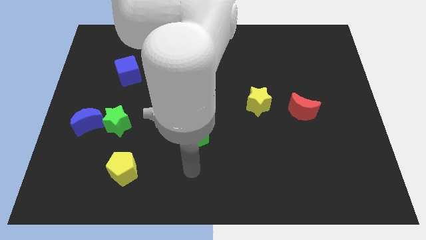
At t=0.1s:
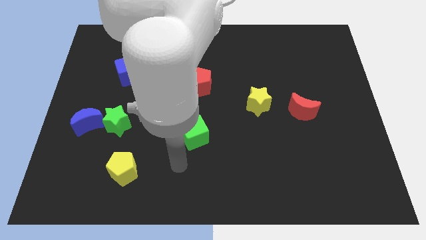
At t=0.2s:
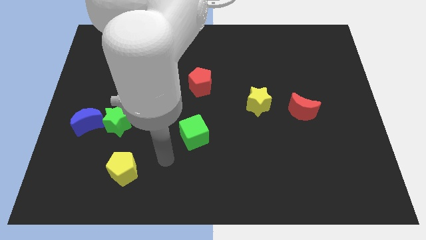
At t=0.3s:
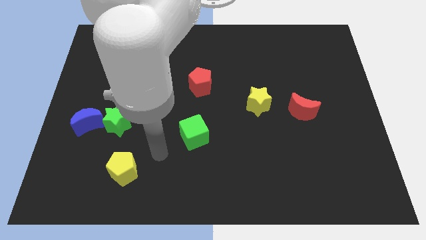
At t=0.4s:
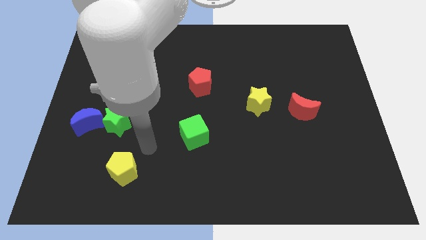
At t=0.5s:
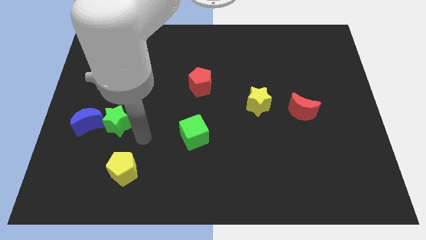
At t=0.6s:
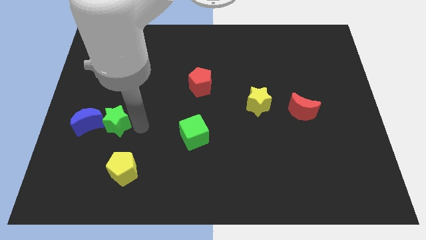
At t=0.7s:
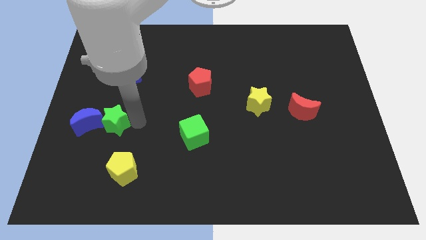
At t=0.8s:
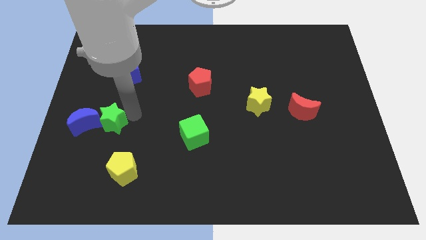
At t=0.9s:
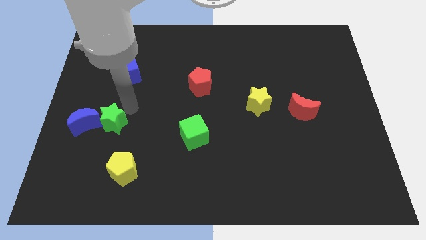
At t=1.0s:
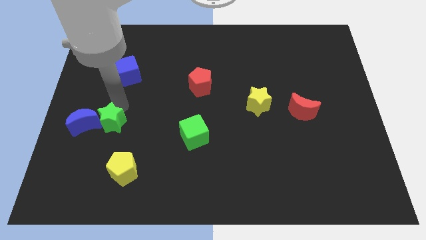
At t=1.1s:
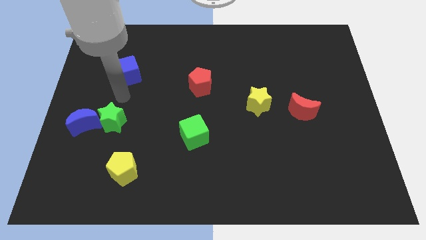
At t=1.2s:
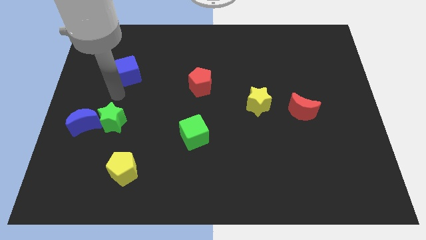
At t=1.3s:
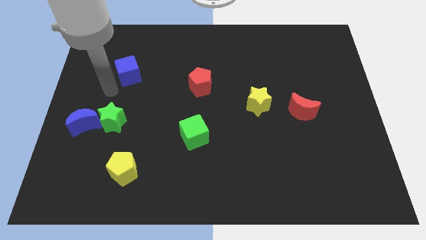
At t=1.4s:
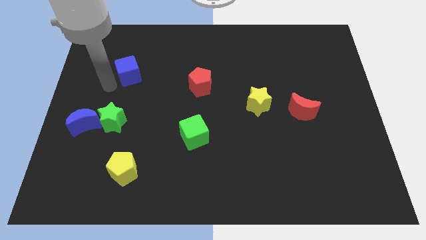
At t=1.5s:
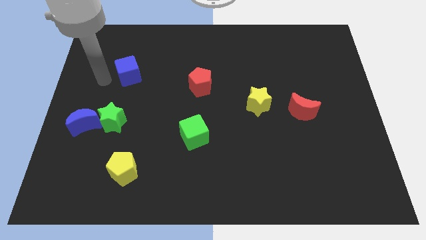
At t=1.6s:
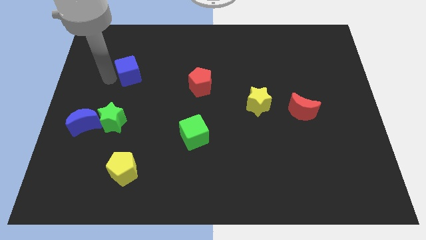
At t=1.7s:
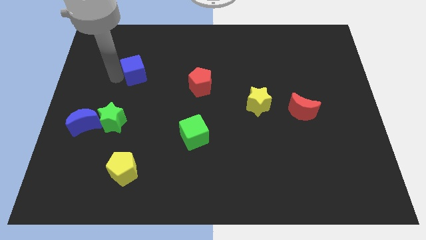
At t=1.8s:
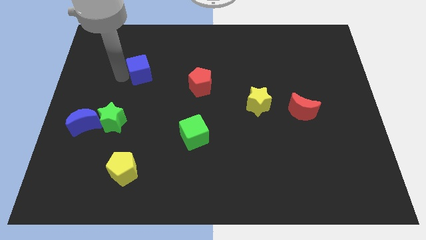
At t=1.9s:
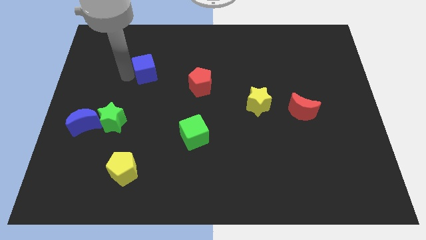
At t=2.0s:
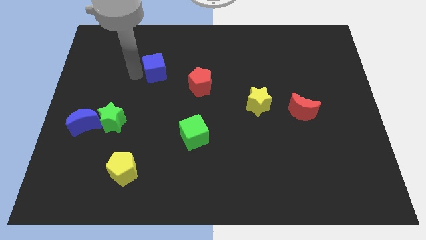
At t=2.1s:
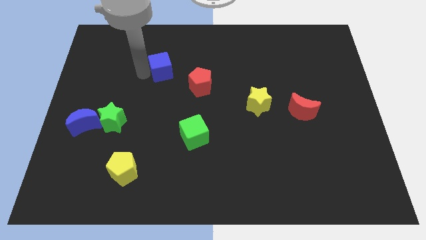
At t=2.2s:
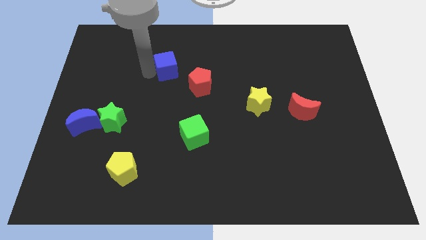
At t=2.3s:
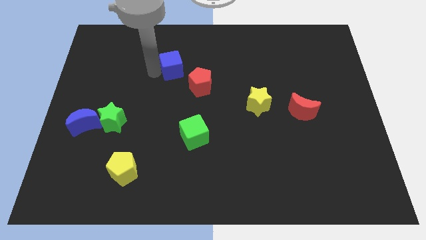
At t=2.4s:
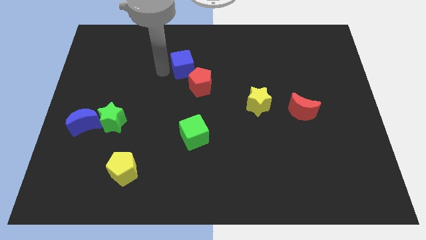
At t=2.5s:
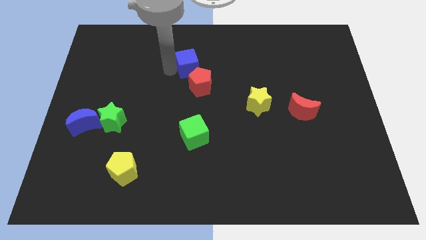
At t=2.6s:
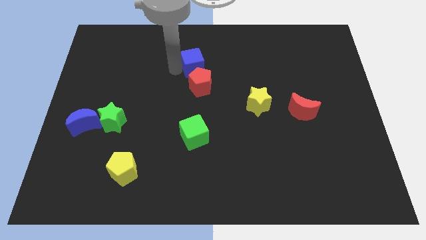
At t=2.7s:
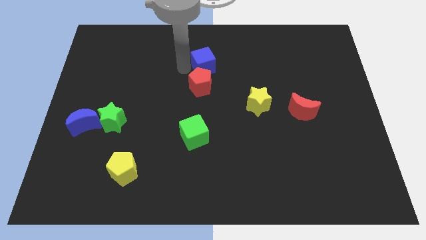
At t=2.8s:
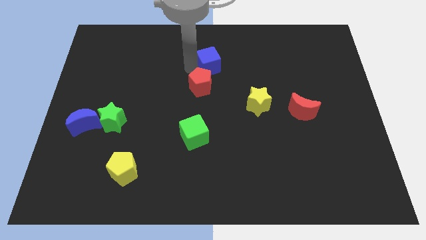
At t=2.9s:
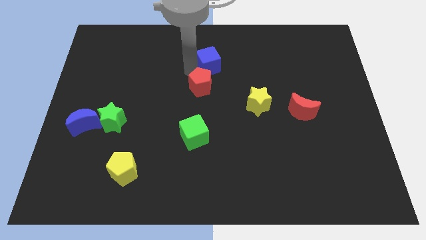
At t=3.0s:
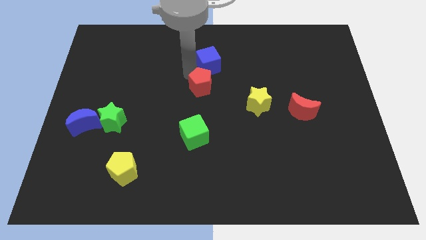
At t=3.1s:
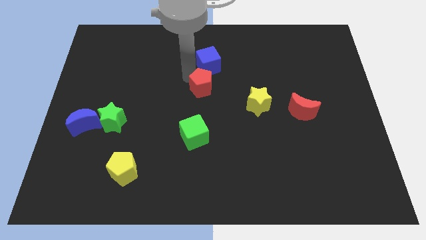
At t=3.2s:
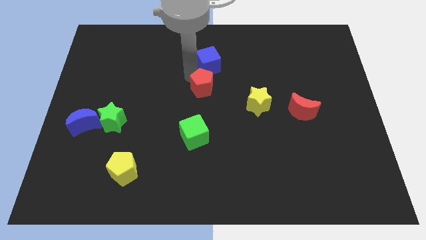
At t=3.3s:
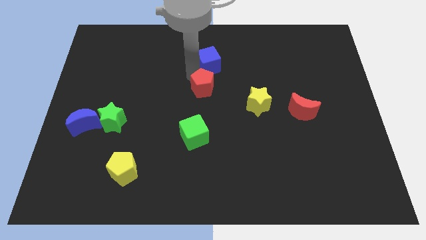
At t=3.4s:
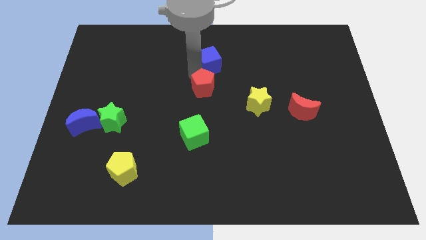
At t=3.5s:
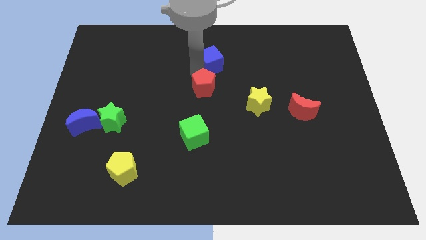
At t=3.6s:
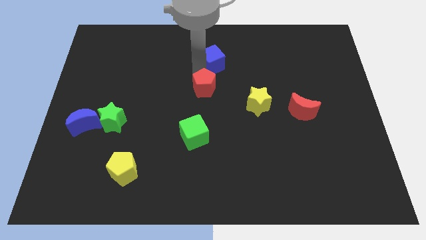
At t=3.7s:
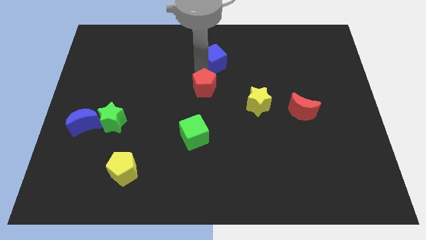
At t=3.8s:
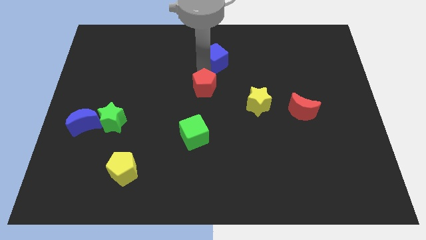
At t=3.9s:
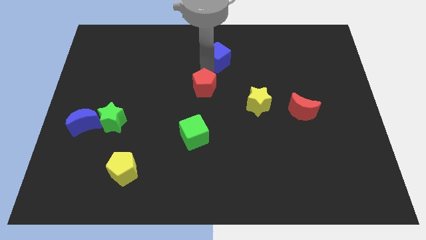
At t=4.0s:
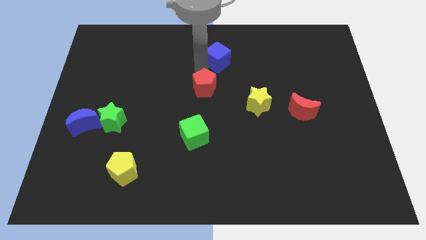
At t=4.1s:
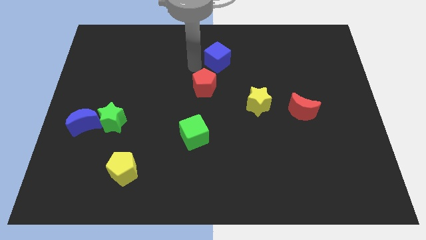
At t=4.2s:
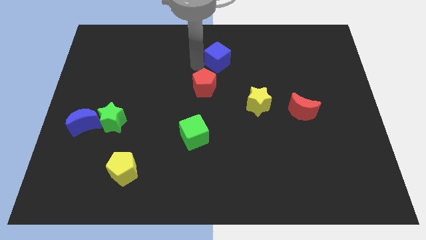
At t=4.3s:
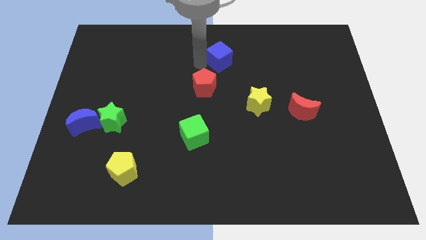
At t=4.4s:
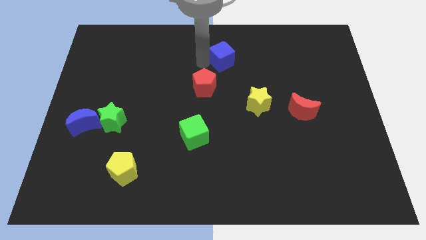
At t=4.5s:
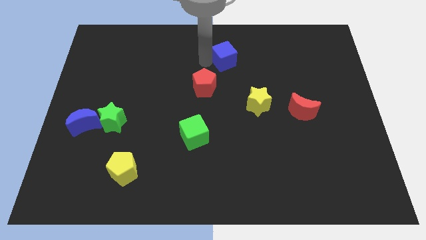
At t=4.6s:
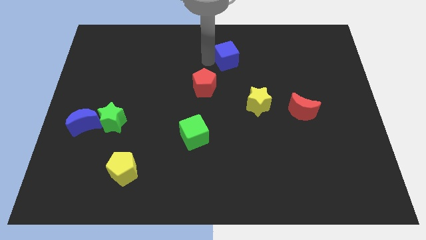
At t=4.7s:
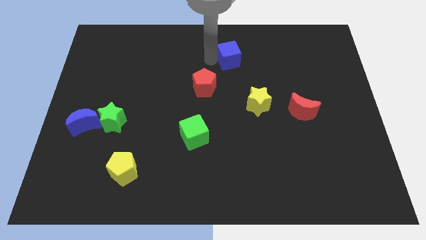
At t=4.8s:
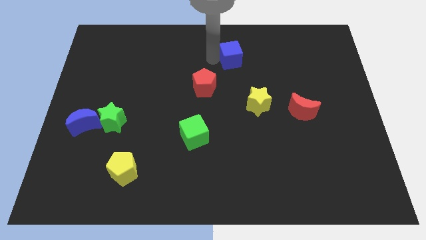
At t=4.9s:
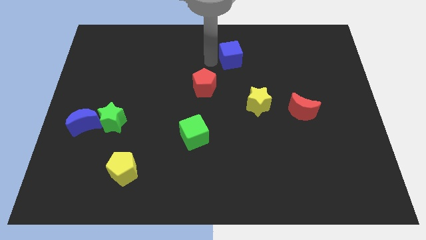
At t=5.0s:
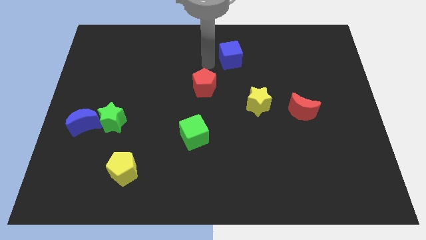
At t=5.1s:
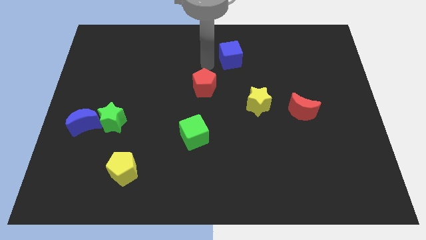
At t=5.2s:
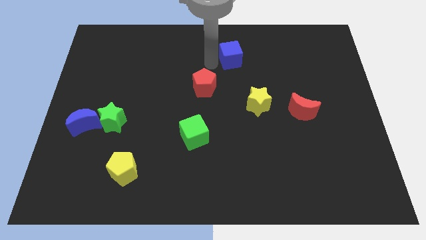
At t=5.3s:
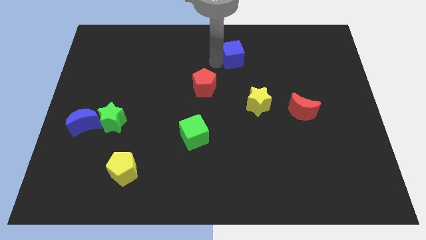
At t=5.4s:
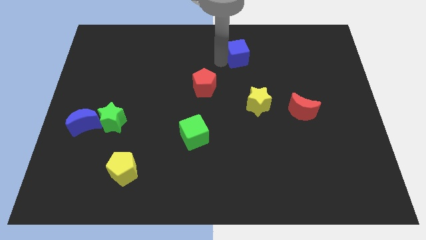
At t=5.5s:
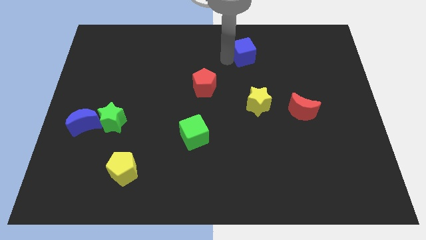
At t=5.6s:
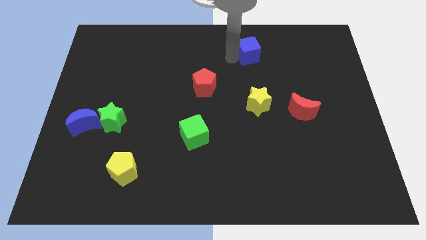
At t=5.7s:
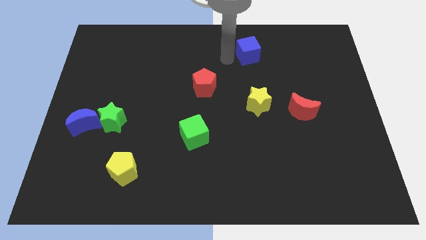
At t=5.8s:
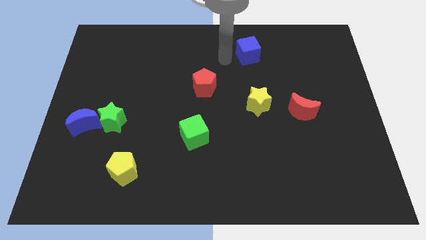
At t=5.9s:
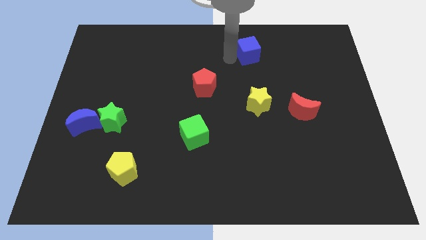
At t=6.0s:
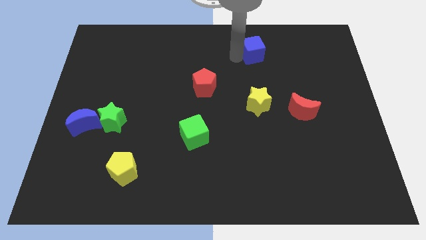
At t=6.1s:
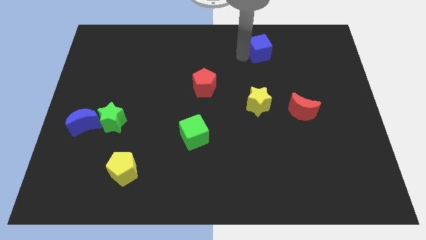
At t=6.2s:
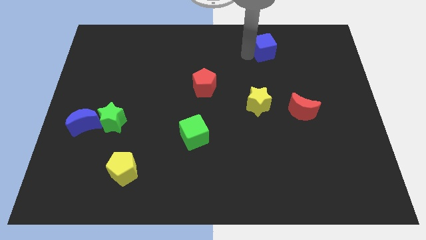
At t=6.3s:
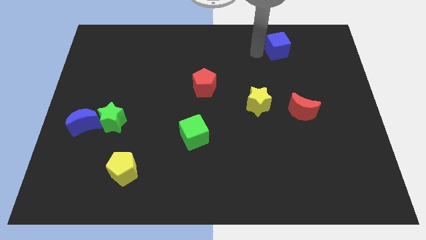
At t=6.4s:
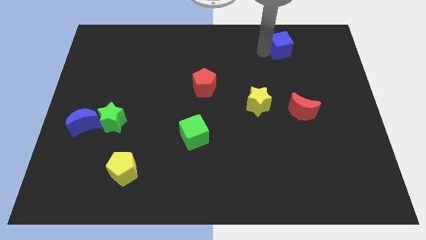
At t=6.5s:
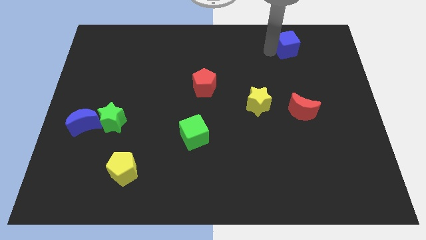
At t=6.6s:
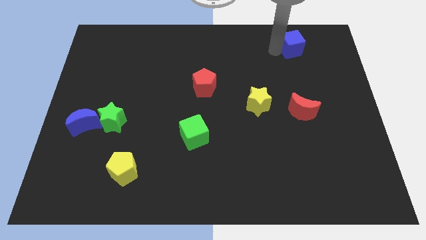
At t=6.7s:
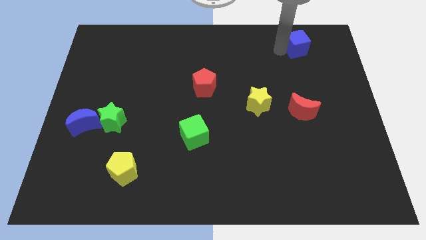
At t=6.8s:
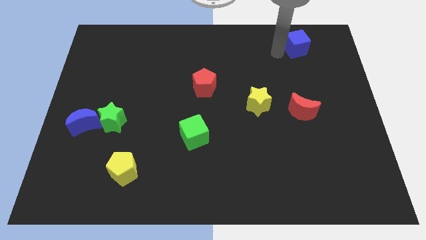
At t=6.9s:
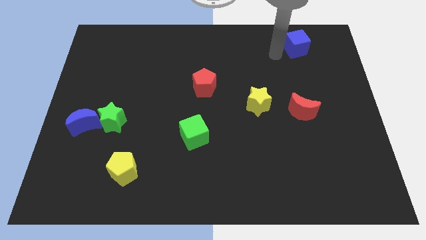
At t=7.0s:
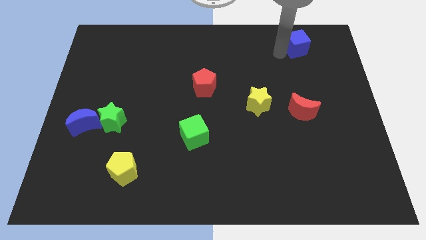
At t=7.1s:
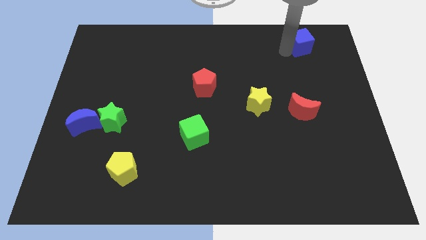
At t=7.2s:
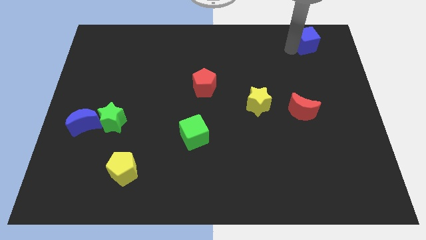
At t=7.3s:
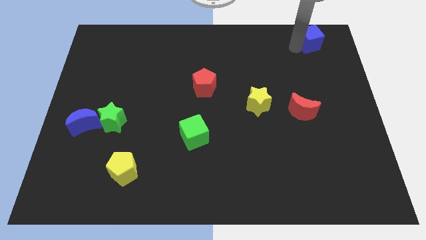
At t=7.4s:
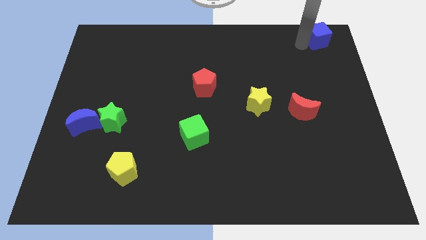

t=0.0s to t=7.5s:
move the blue cube to the top right corner
